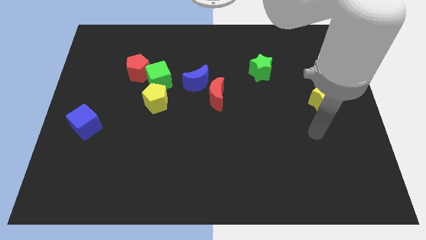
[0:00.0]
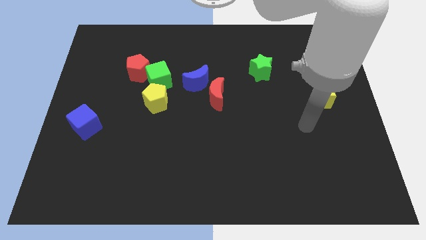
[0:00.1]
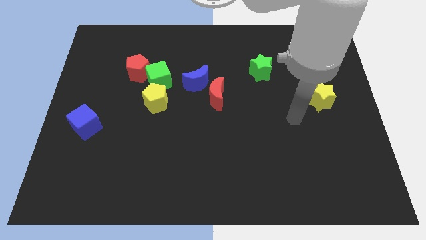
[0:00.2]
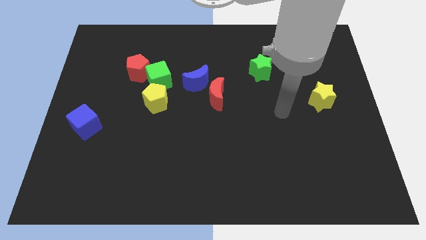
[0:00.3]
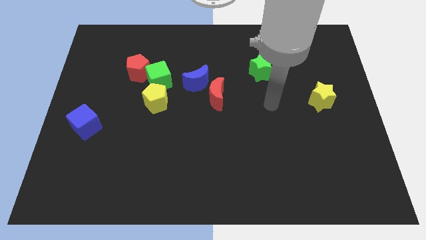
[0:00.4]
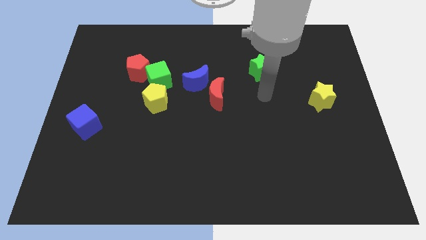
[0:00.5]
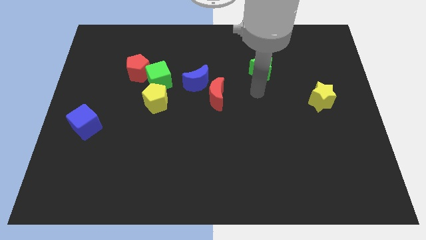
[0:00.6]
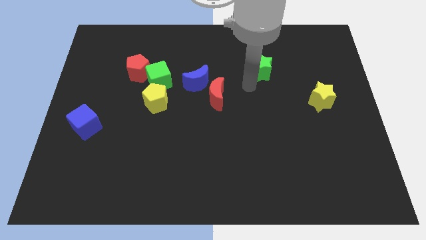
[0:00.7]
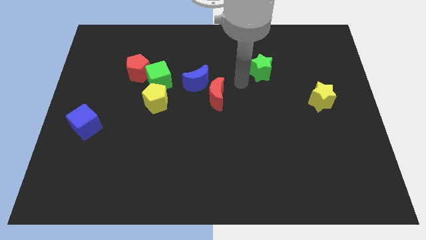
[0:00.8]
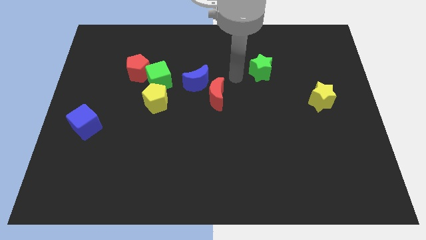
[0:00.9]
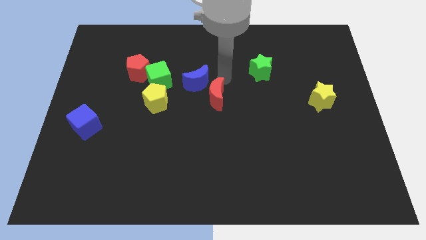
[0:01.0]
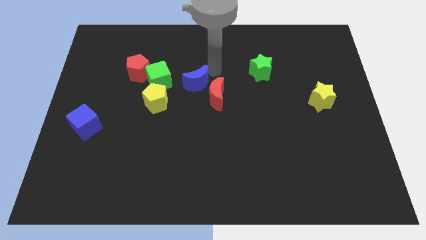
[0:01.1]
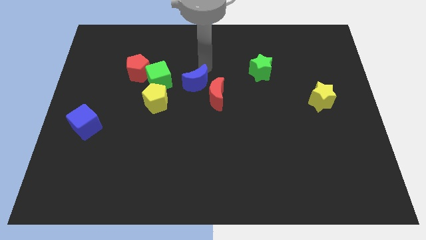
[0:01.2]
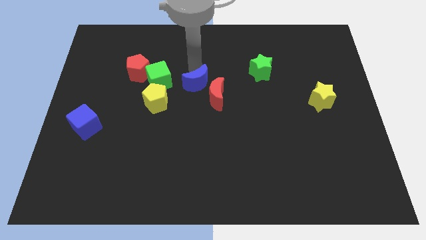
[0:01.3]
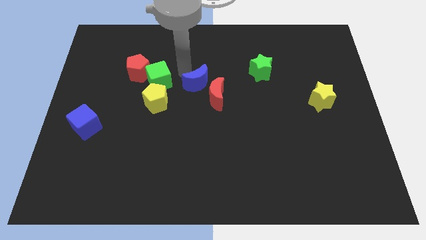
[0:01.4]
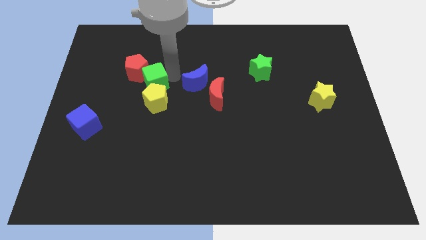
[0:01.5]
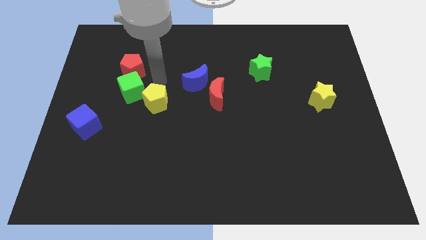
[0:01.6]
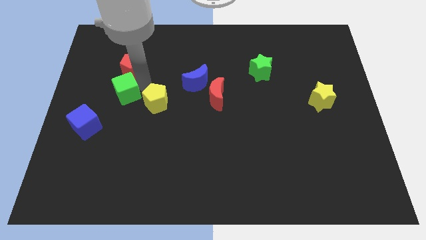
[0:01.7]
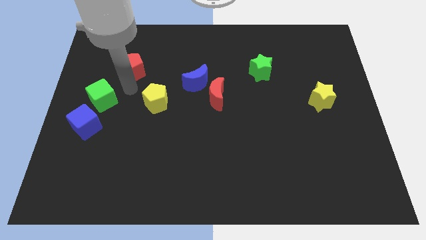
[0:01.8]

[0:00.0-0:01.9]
separate the red pentagon from the green cube

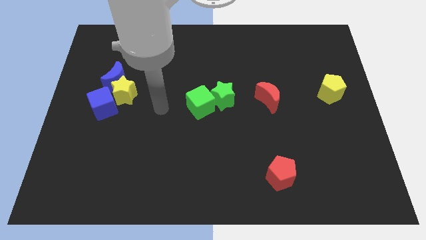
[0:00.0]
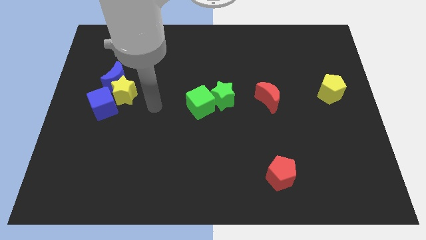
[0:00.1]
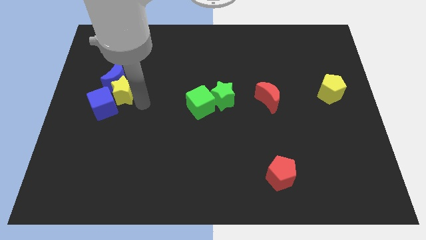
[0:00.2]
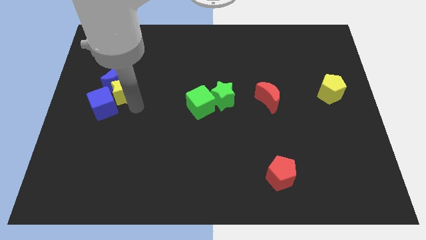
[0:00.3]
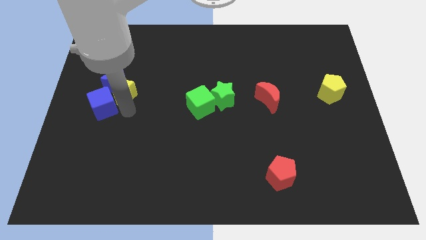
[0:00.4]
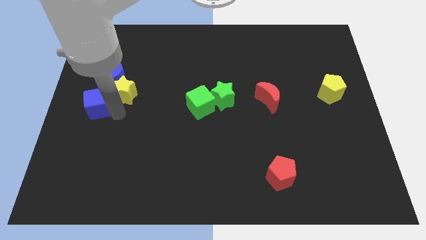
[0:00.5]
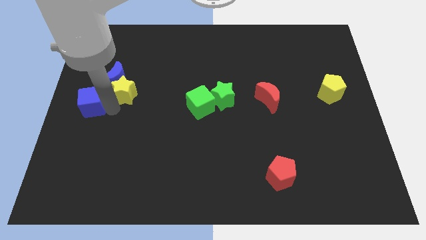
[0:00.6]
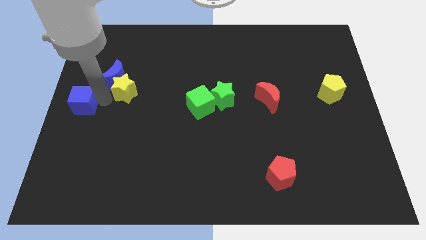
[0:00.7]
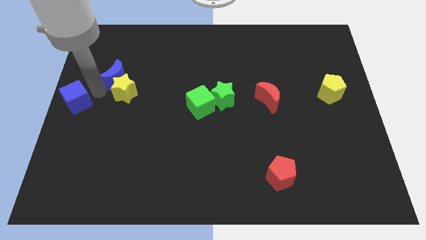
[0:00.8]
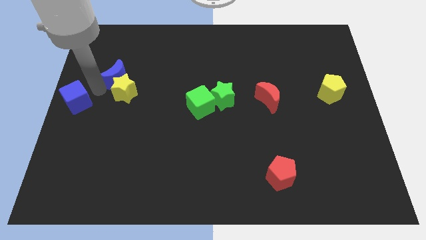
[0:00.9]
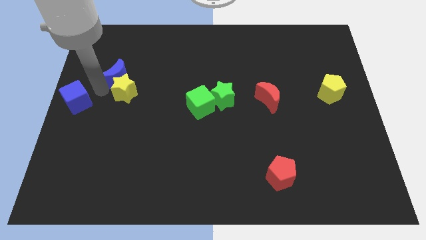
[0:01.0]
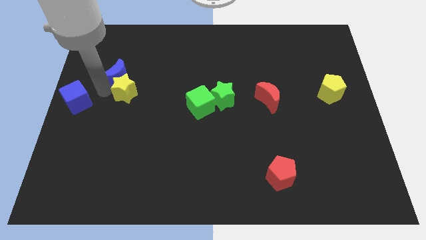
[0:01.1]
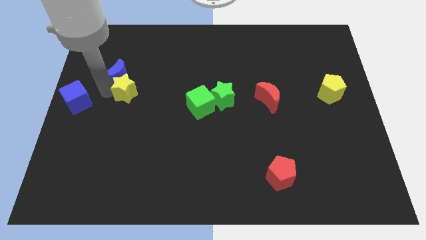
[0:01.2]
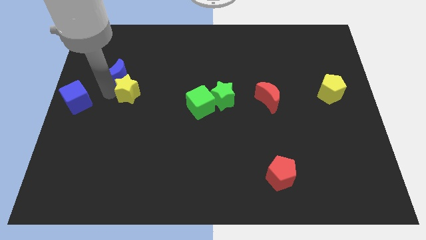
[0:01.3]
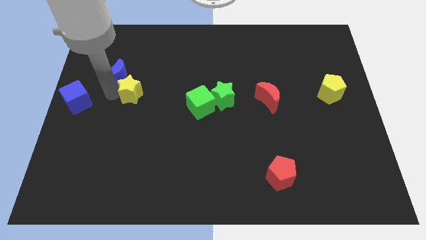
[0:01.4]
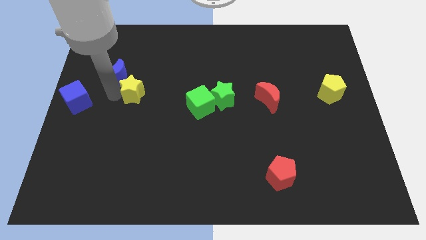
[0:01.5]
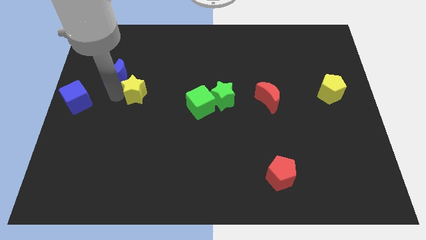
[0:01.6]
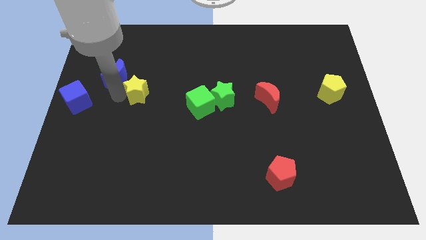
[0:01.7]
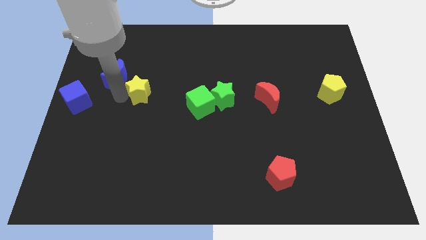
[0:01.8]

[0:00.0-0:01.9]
separate the yellow star from the blue moon and blue cube

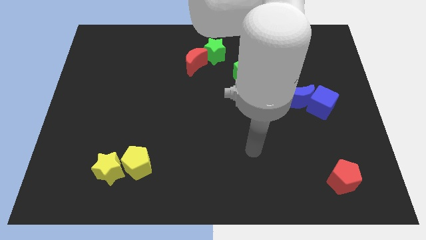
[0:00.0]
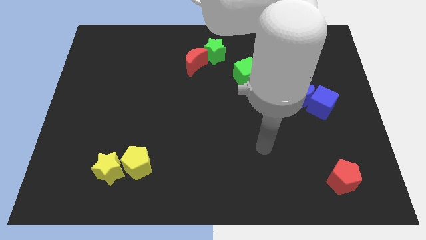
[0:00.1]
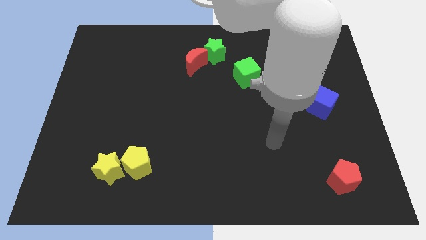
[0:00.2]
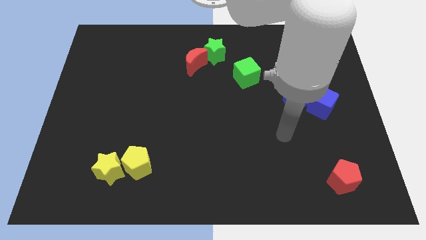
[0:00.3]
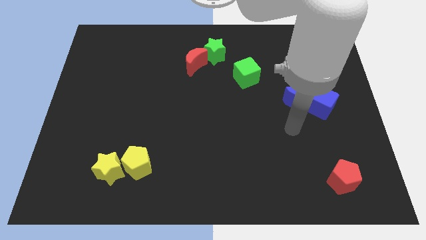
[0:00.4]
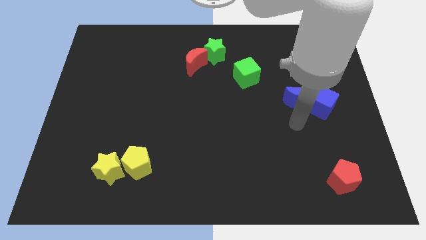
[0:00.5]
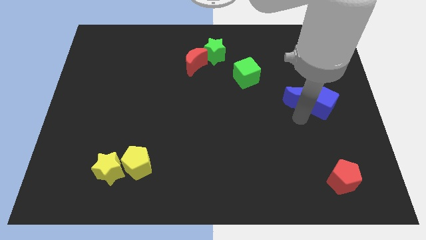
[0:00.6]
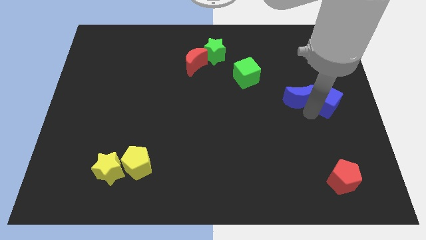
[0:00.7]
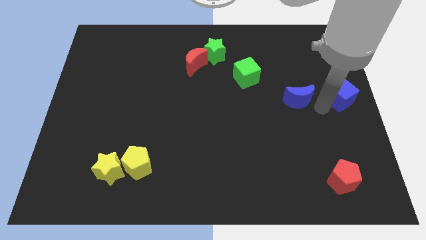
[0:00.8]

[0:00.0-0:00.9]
pull the blue moon apart from the blue cube

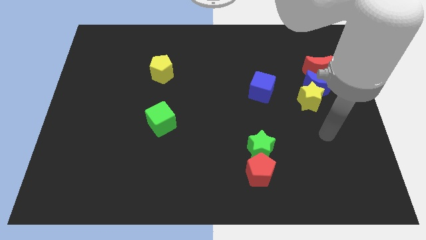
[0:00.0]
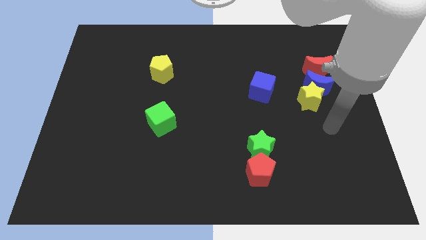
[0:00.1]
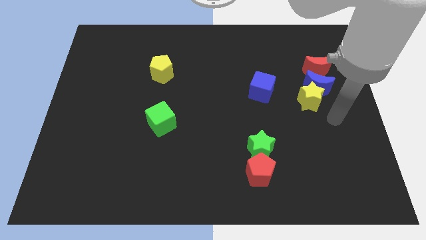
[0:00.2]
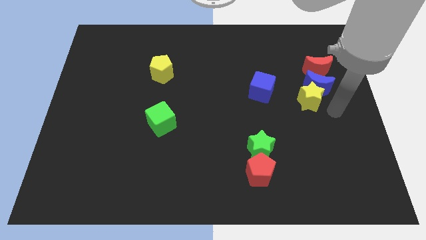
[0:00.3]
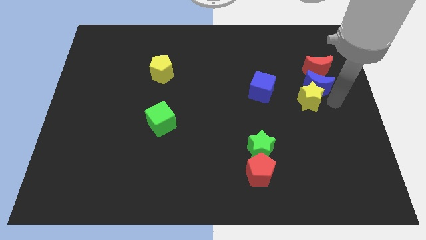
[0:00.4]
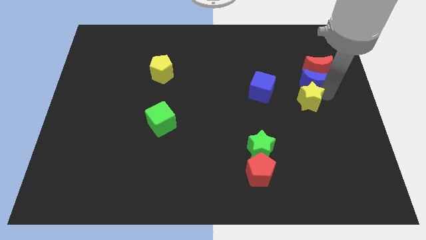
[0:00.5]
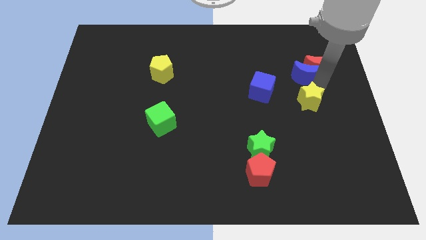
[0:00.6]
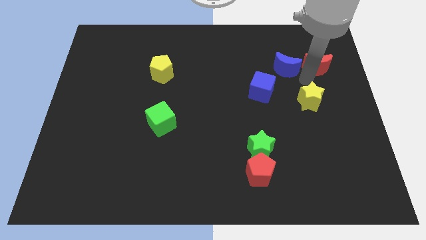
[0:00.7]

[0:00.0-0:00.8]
move the yellow star away from the blue moon

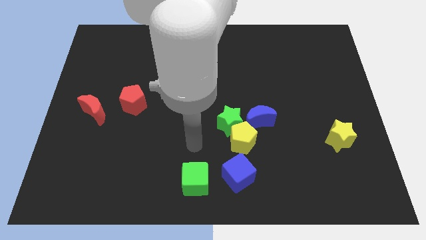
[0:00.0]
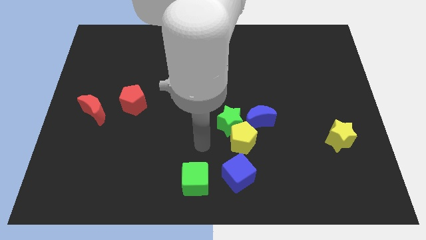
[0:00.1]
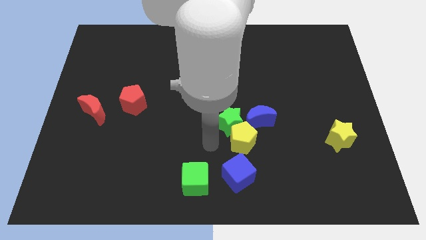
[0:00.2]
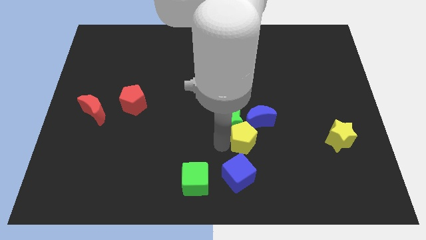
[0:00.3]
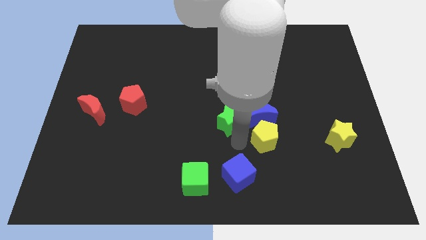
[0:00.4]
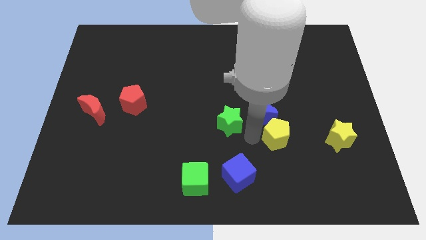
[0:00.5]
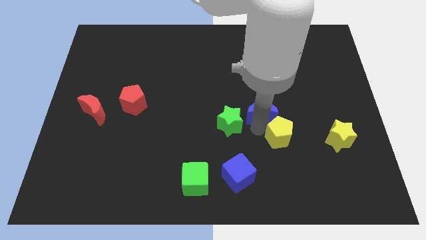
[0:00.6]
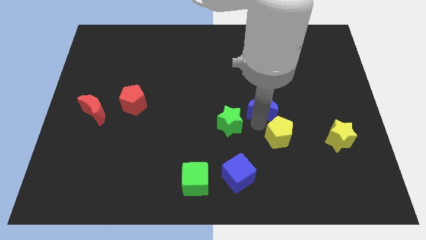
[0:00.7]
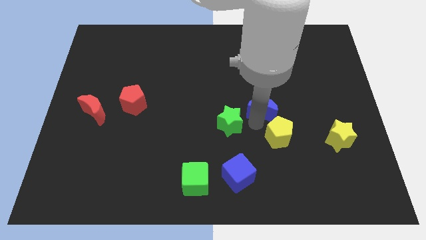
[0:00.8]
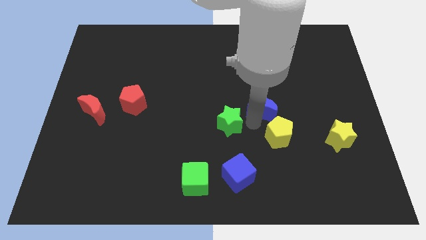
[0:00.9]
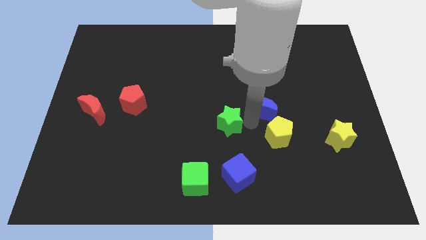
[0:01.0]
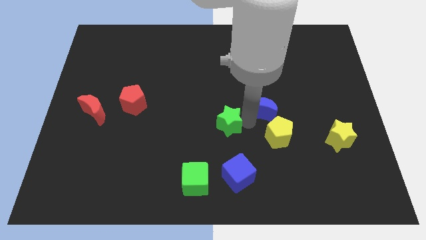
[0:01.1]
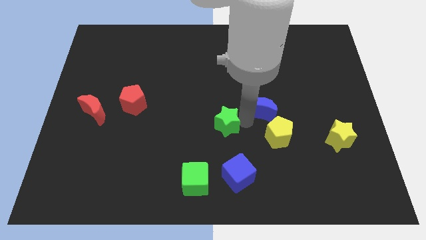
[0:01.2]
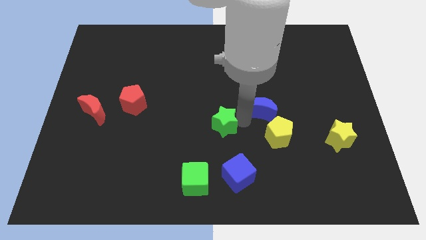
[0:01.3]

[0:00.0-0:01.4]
pull the green star apart from the yellow pentagon and blue moon

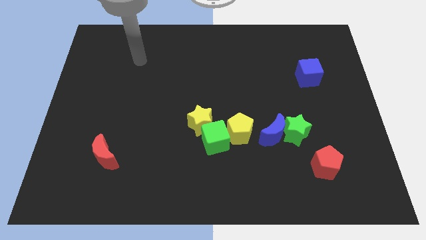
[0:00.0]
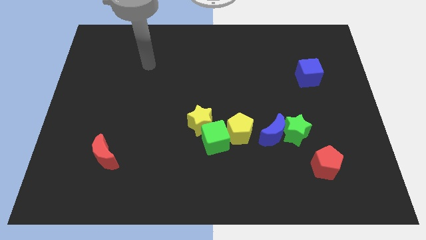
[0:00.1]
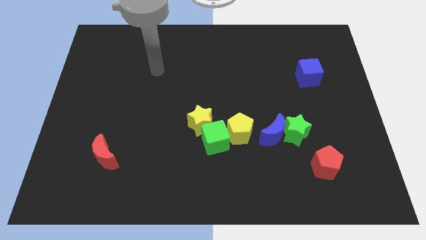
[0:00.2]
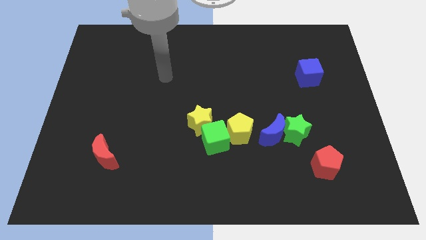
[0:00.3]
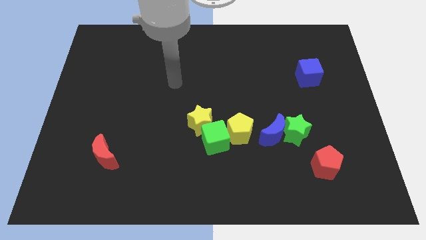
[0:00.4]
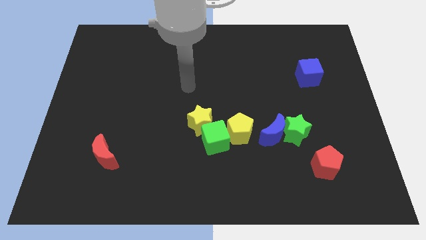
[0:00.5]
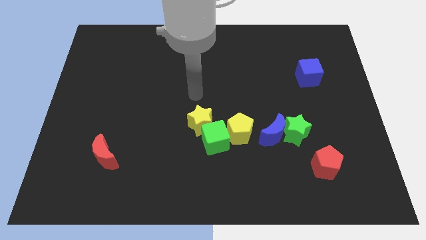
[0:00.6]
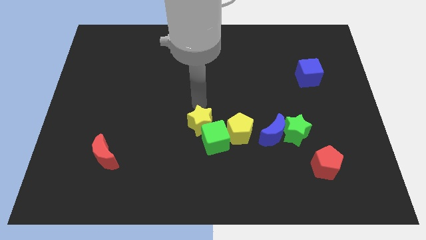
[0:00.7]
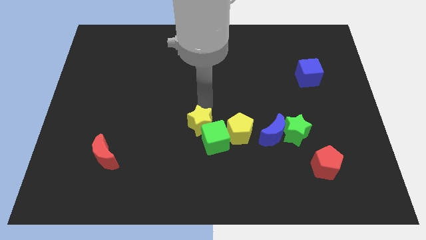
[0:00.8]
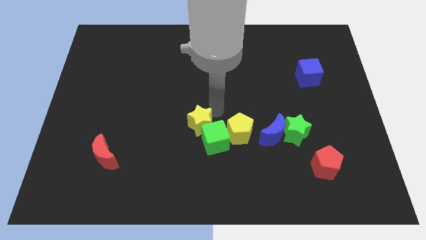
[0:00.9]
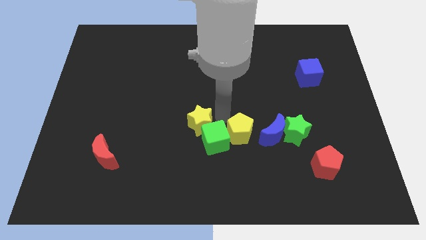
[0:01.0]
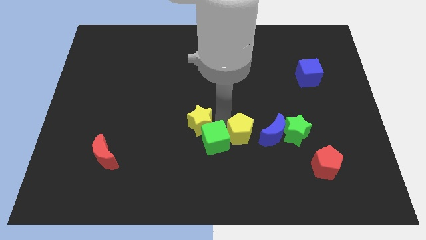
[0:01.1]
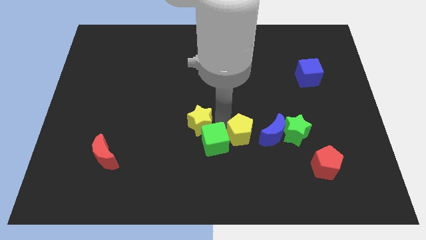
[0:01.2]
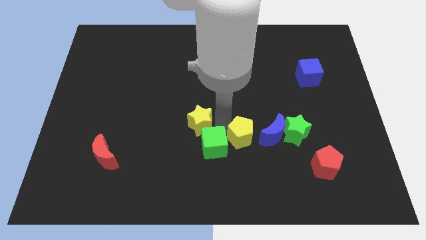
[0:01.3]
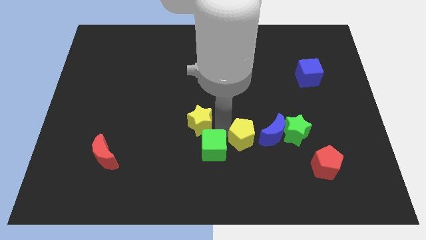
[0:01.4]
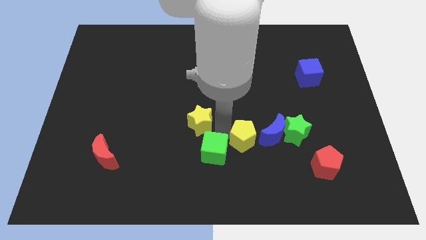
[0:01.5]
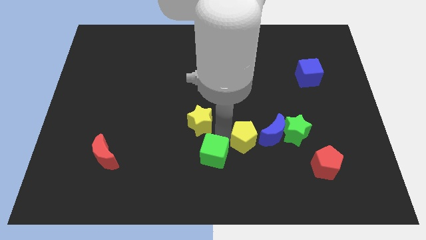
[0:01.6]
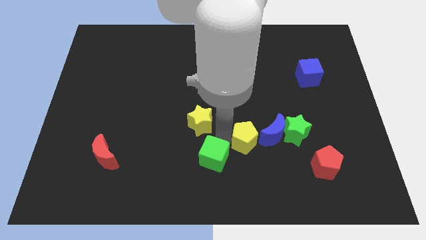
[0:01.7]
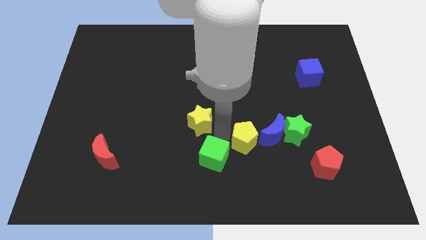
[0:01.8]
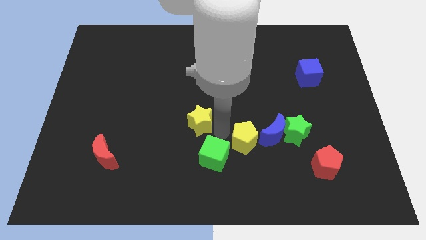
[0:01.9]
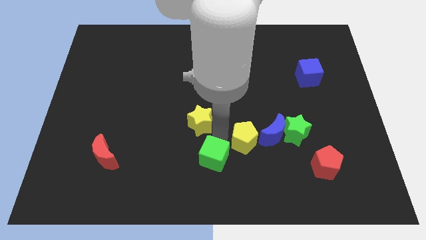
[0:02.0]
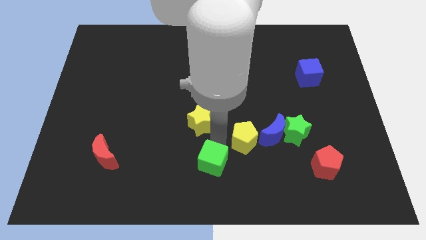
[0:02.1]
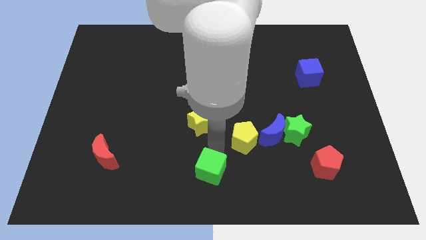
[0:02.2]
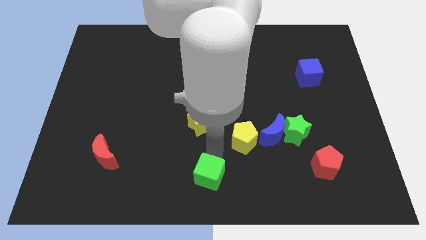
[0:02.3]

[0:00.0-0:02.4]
separate the green cube from the yellow star and yellow pentagon
